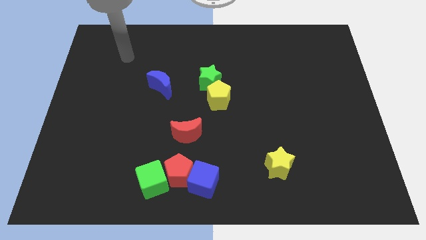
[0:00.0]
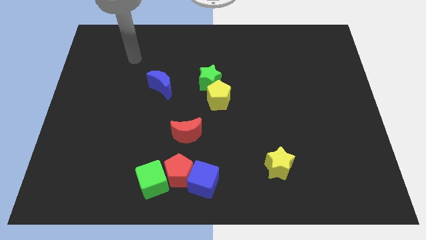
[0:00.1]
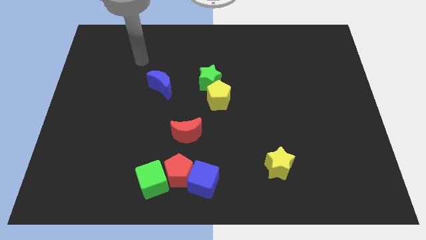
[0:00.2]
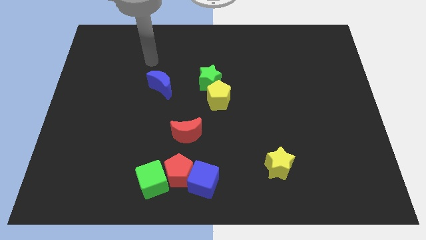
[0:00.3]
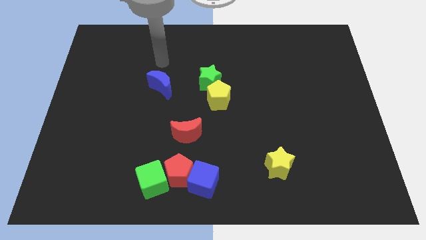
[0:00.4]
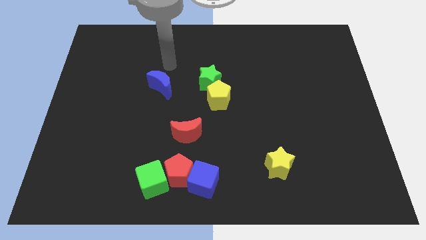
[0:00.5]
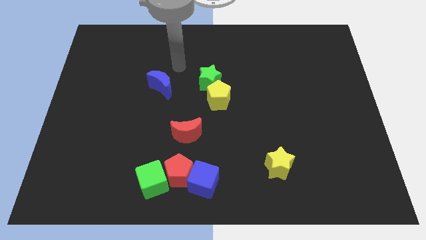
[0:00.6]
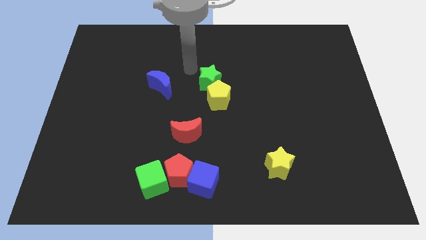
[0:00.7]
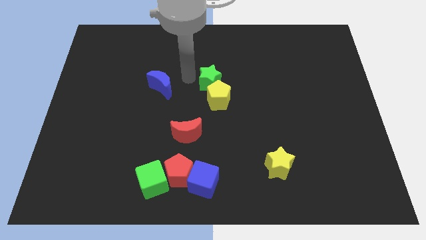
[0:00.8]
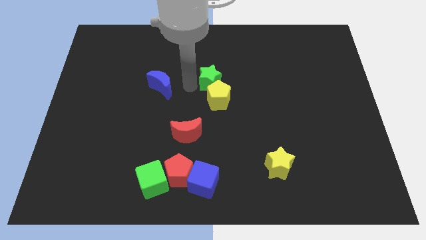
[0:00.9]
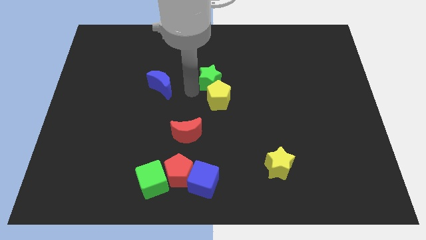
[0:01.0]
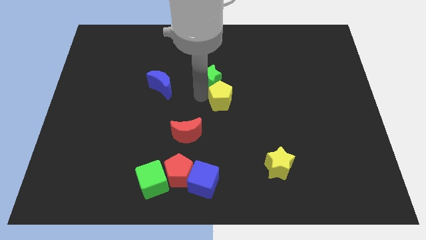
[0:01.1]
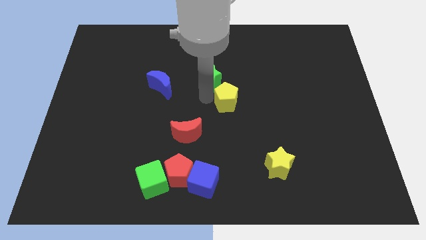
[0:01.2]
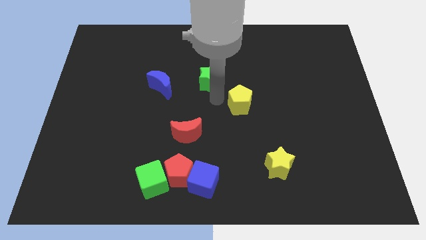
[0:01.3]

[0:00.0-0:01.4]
move the green star away from the yellow pentagon

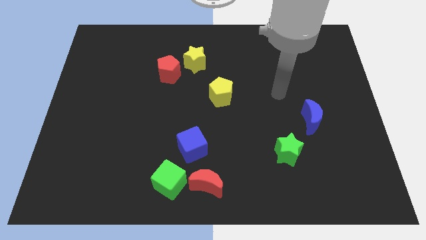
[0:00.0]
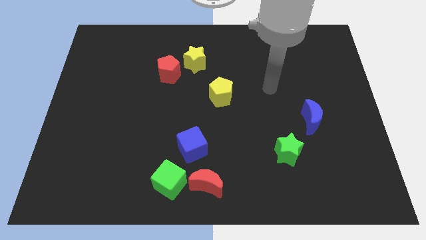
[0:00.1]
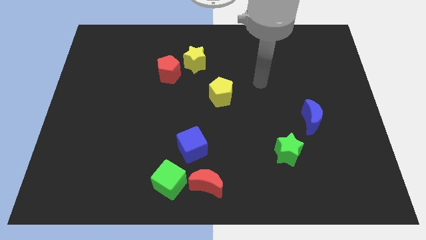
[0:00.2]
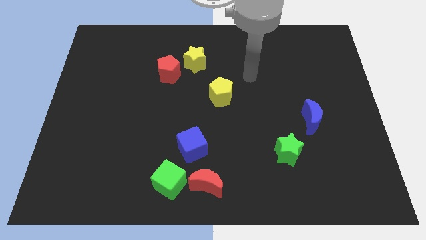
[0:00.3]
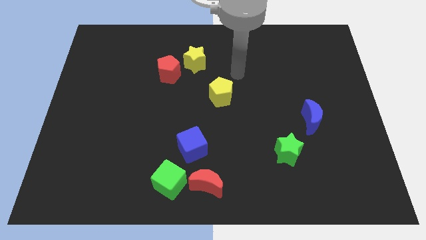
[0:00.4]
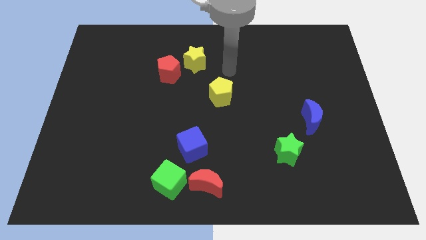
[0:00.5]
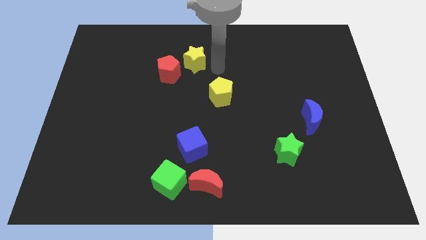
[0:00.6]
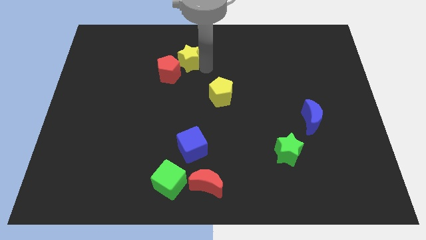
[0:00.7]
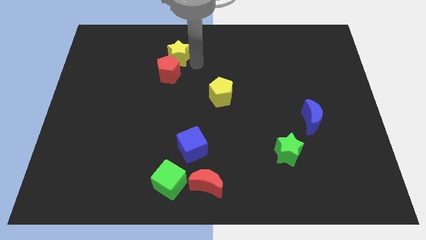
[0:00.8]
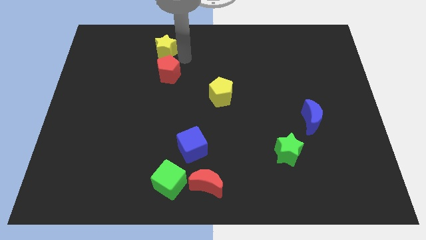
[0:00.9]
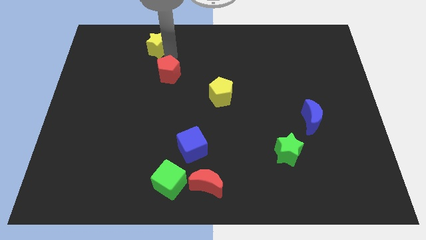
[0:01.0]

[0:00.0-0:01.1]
separate the red pentagon from the yellow star

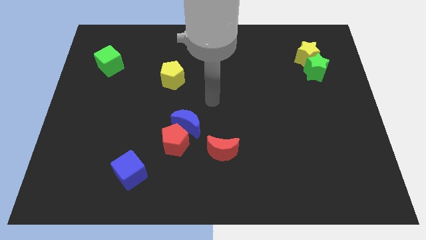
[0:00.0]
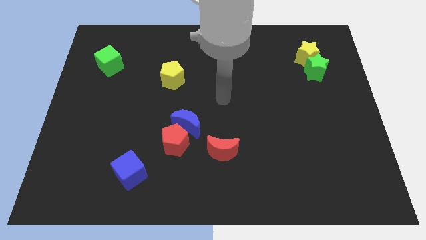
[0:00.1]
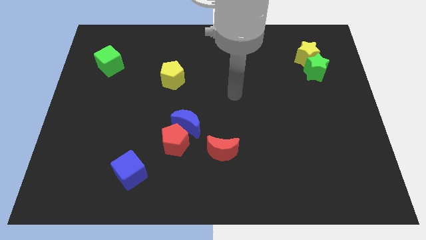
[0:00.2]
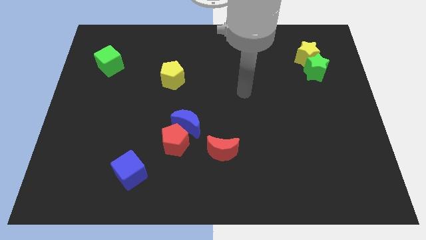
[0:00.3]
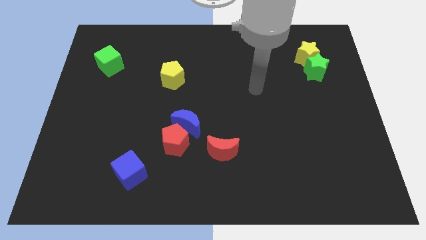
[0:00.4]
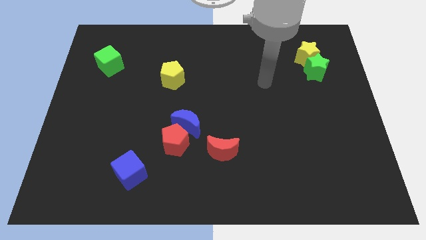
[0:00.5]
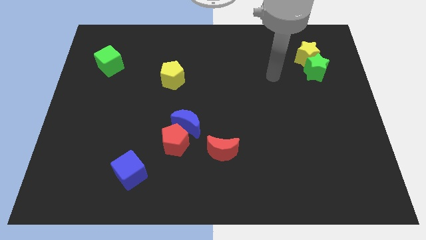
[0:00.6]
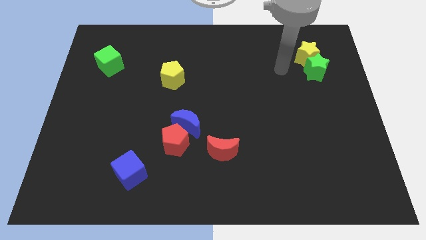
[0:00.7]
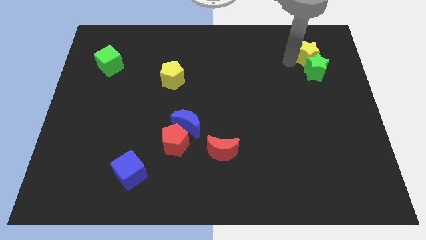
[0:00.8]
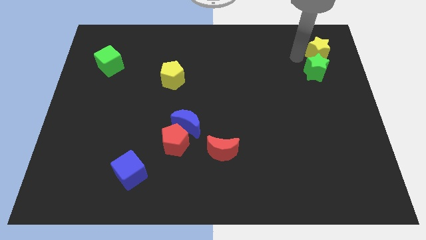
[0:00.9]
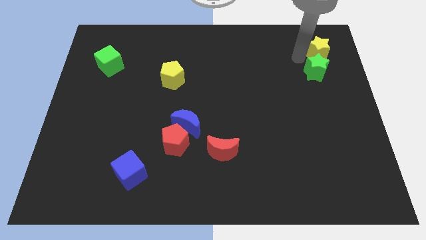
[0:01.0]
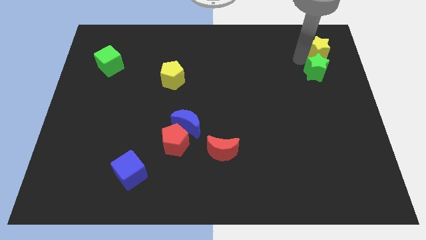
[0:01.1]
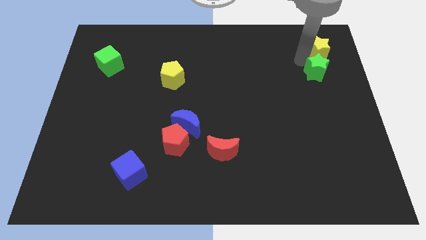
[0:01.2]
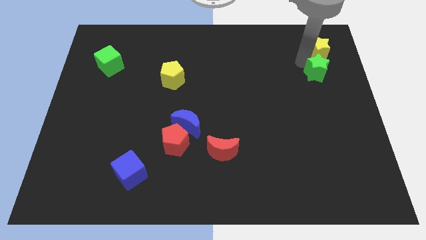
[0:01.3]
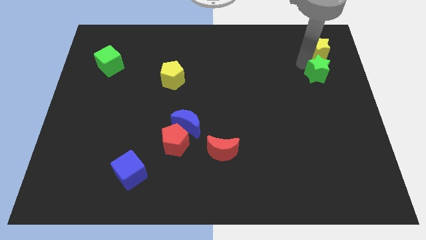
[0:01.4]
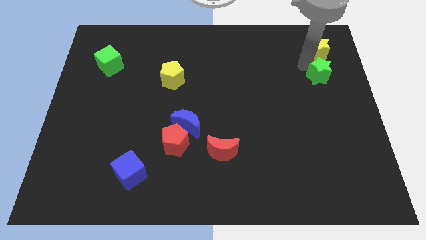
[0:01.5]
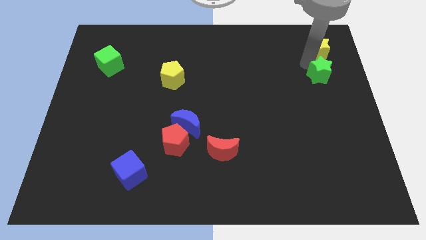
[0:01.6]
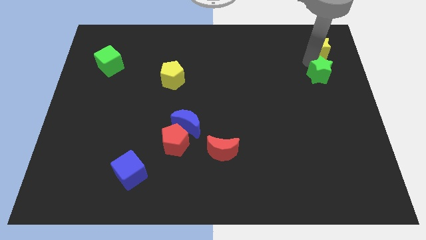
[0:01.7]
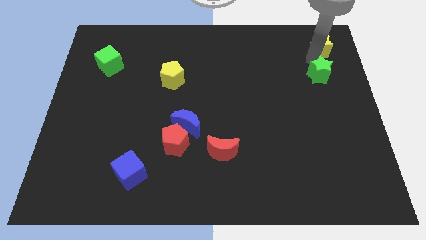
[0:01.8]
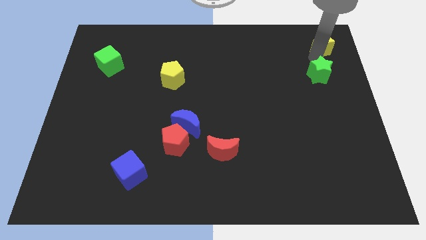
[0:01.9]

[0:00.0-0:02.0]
move the green star away from the yellow star

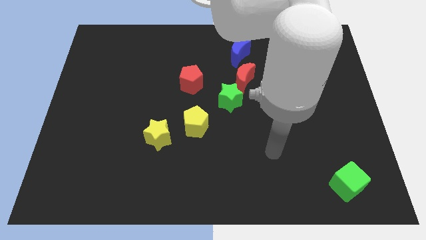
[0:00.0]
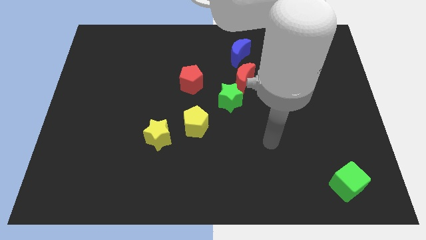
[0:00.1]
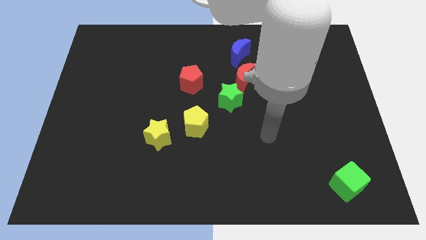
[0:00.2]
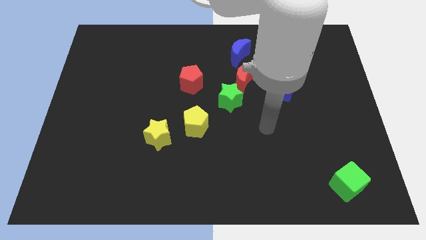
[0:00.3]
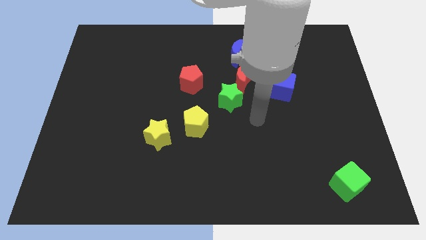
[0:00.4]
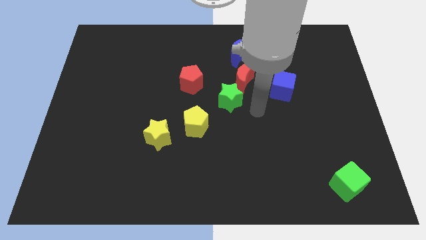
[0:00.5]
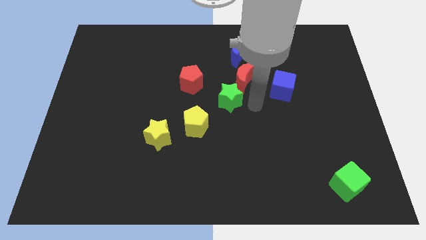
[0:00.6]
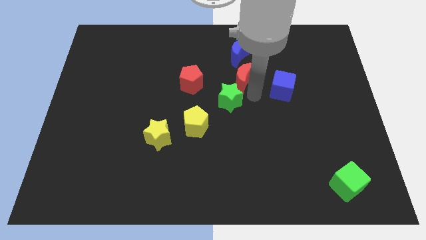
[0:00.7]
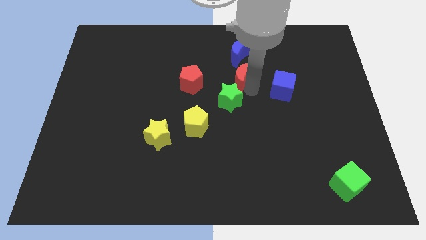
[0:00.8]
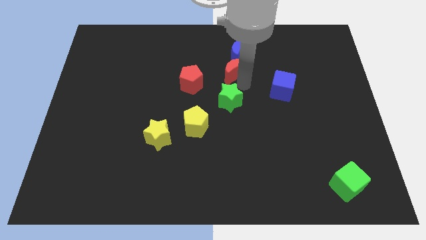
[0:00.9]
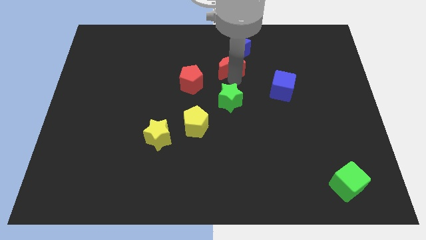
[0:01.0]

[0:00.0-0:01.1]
move the green star away from the red moon

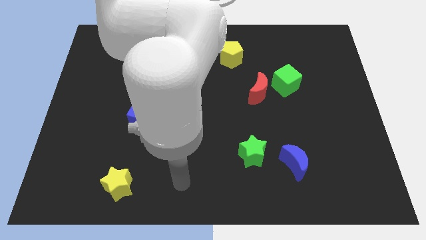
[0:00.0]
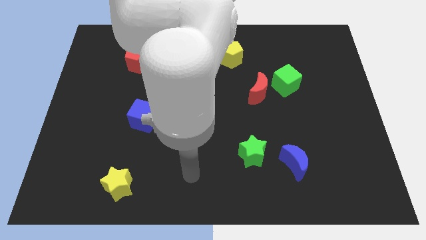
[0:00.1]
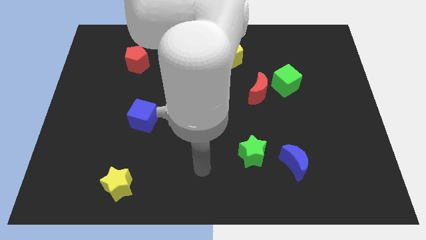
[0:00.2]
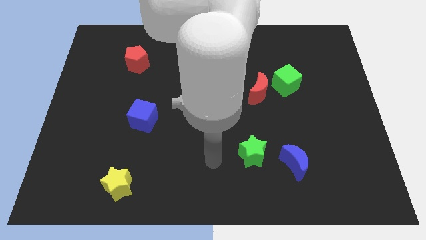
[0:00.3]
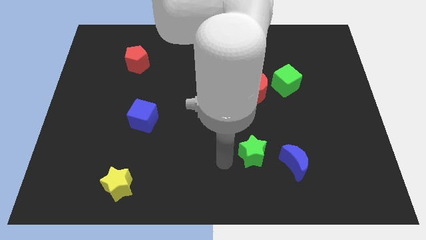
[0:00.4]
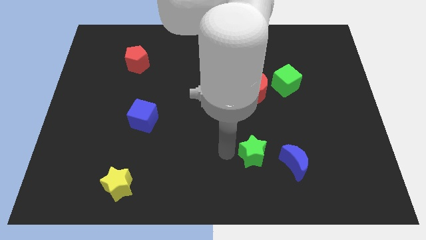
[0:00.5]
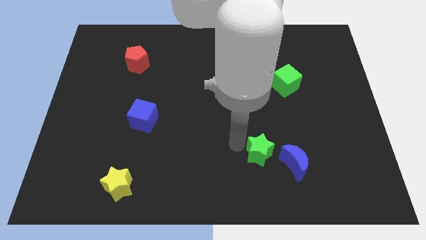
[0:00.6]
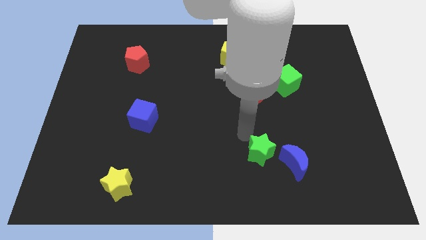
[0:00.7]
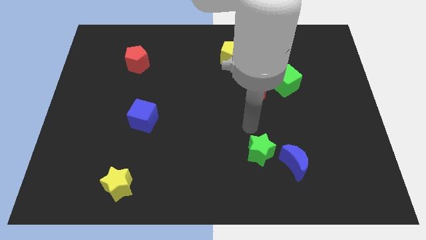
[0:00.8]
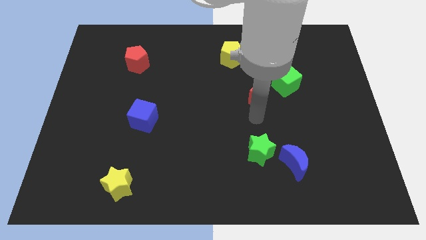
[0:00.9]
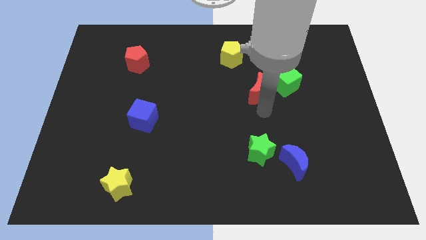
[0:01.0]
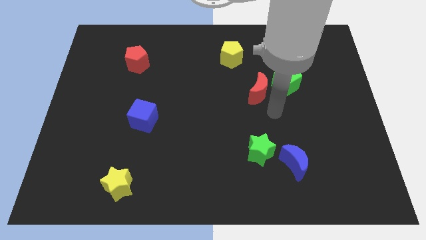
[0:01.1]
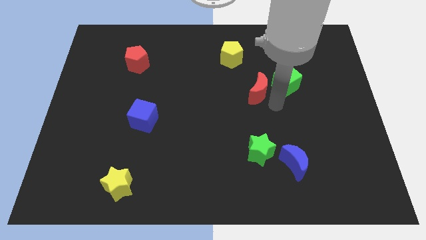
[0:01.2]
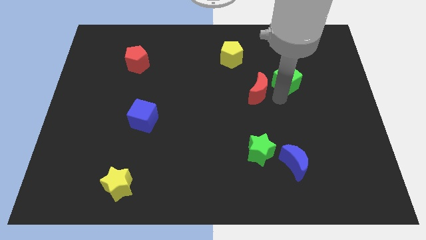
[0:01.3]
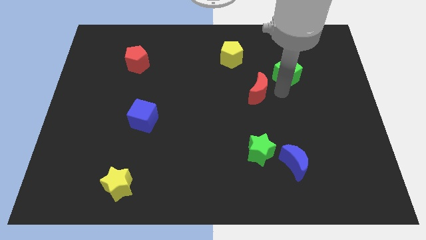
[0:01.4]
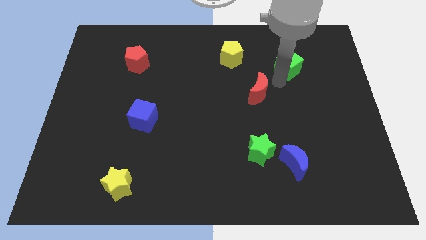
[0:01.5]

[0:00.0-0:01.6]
pull the red moon apart from the green cube

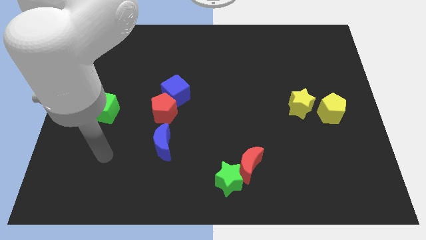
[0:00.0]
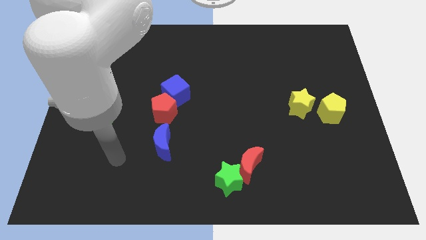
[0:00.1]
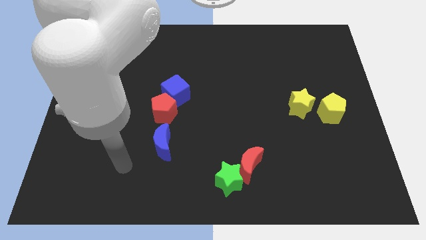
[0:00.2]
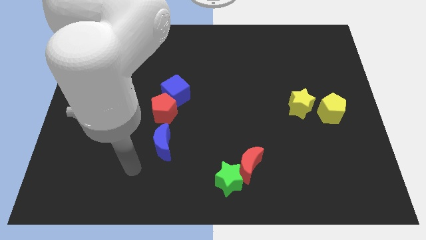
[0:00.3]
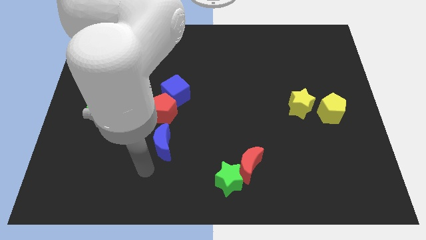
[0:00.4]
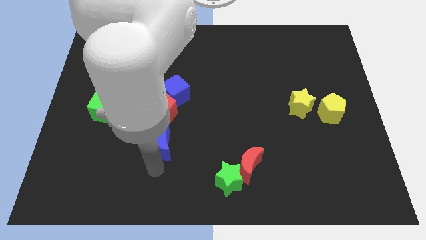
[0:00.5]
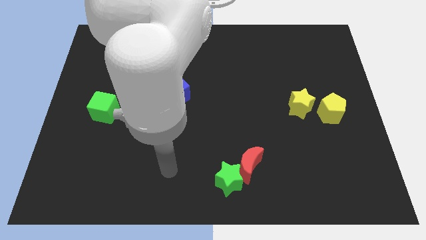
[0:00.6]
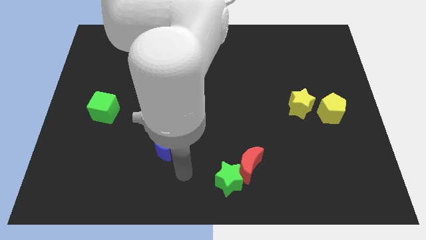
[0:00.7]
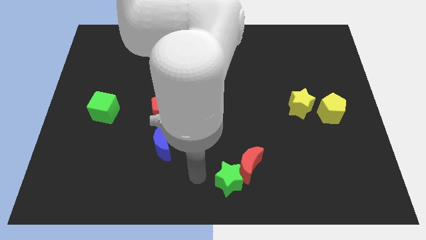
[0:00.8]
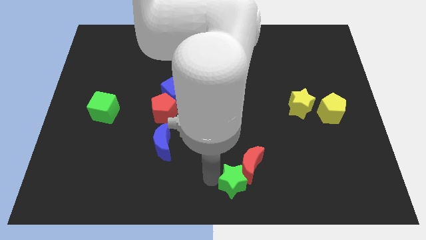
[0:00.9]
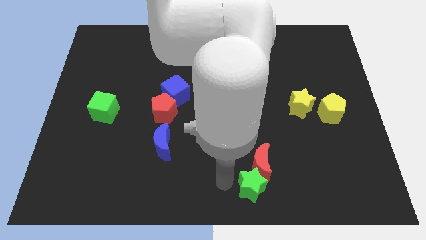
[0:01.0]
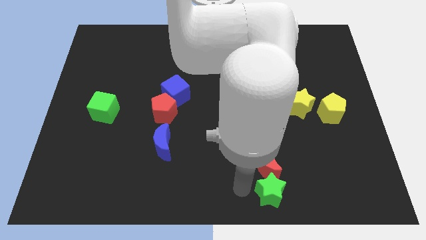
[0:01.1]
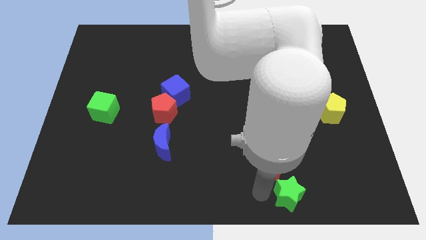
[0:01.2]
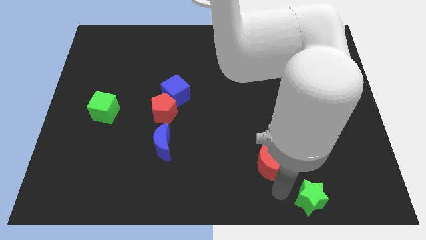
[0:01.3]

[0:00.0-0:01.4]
move the red moon away from the green star

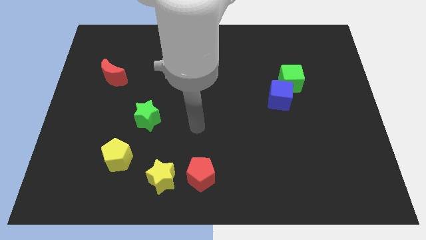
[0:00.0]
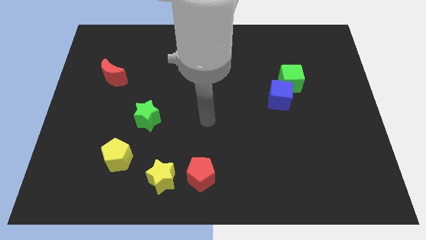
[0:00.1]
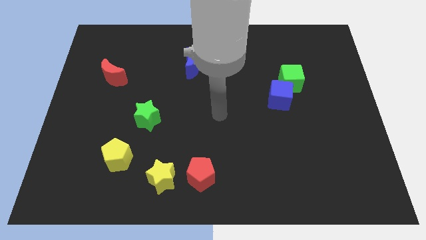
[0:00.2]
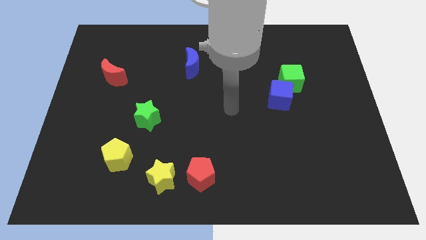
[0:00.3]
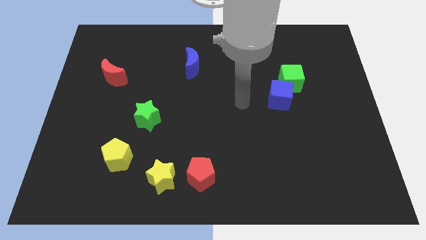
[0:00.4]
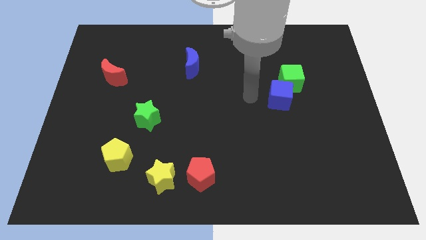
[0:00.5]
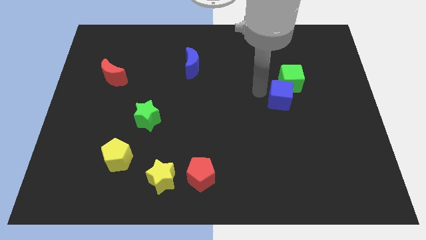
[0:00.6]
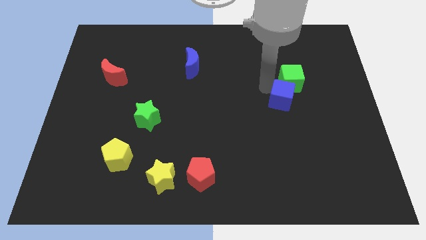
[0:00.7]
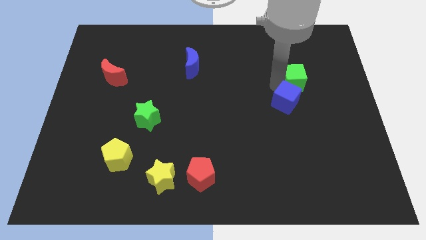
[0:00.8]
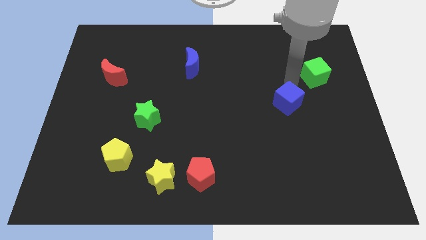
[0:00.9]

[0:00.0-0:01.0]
pull the blue cube apart from the green cube
